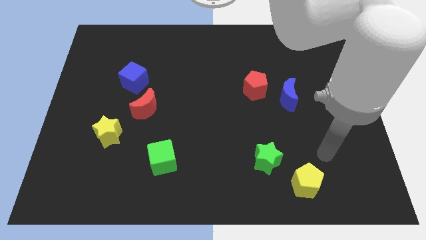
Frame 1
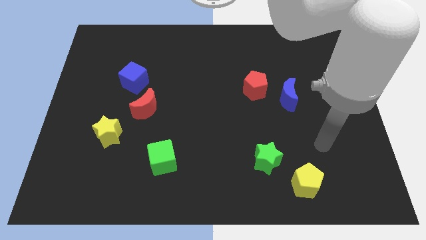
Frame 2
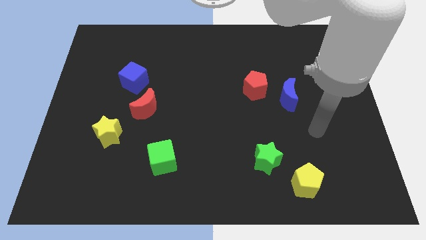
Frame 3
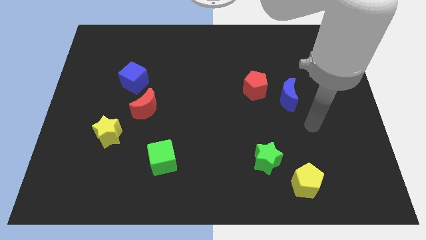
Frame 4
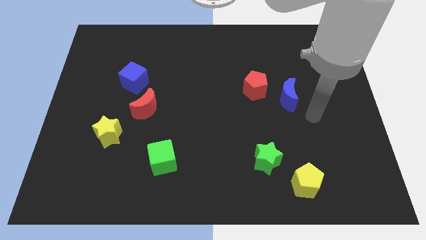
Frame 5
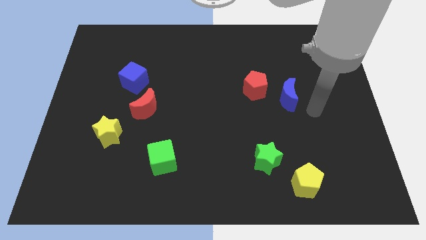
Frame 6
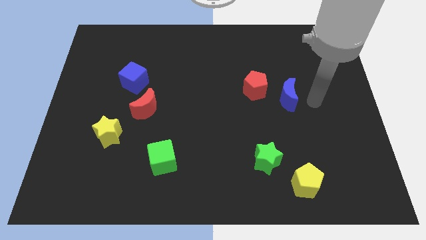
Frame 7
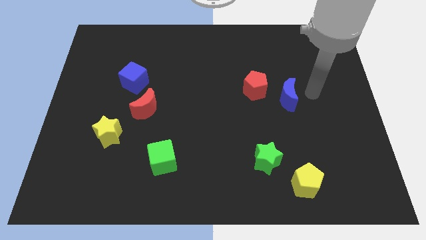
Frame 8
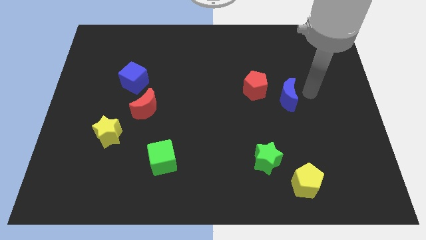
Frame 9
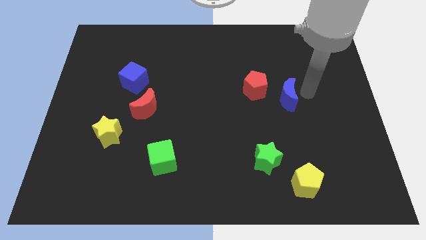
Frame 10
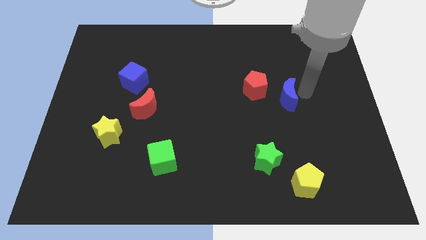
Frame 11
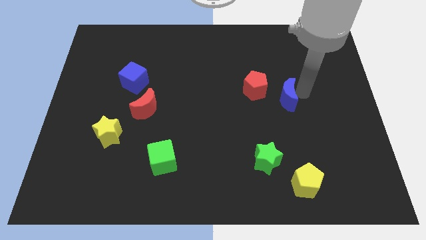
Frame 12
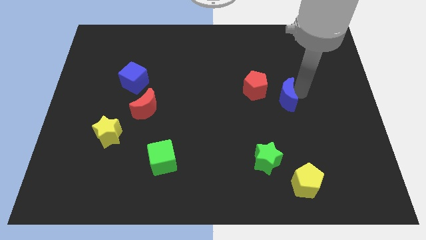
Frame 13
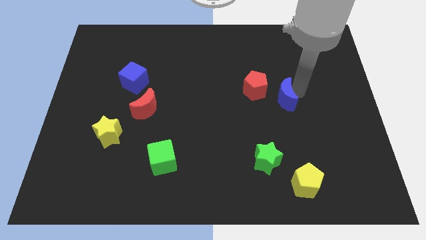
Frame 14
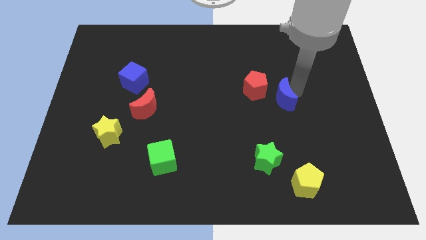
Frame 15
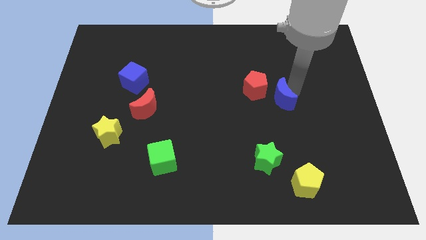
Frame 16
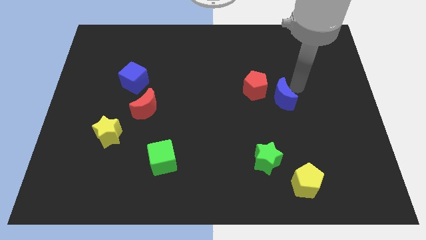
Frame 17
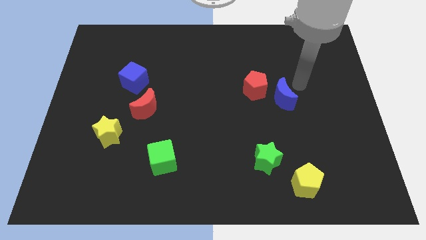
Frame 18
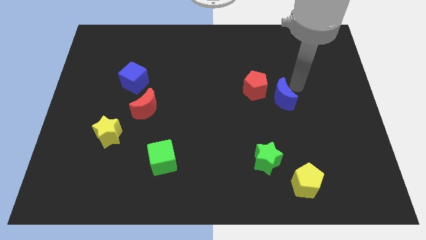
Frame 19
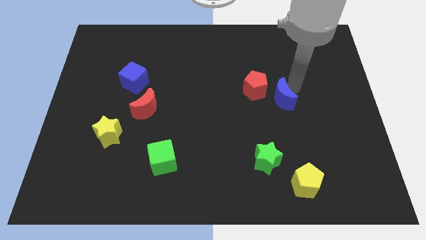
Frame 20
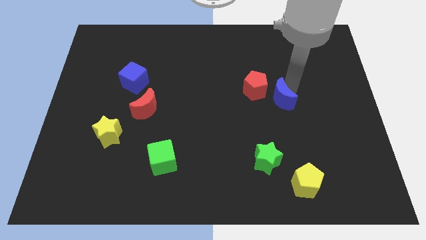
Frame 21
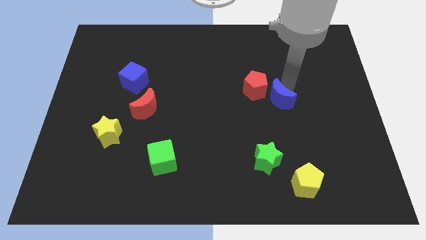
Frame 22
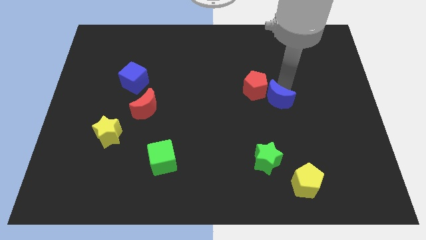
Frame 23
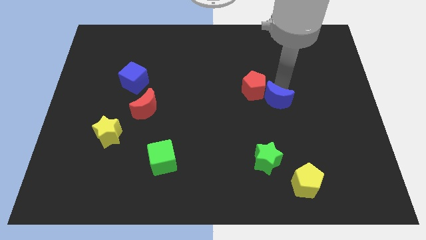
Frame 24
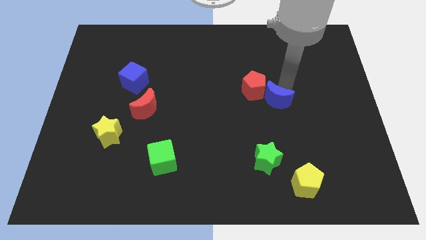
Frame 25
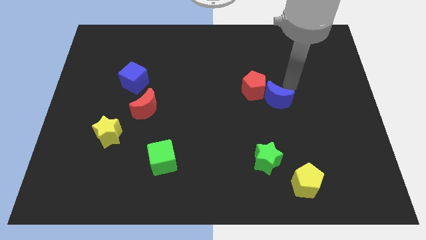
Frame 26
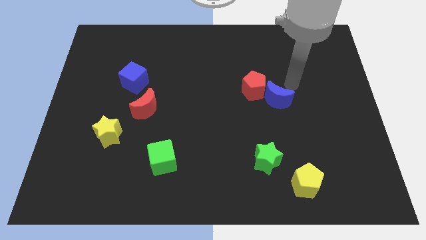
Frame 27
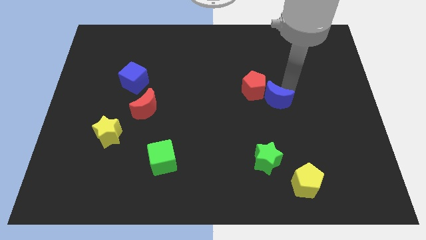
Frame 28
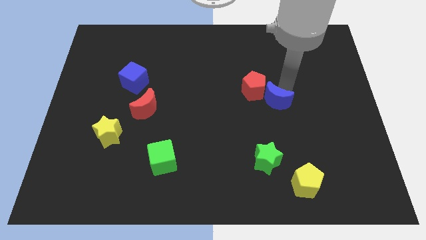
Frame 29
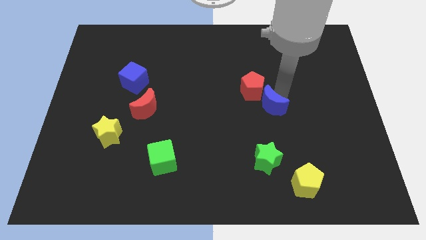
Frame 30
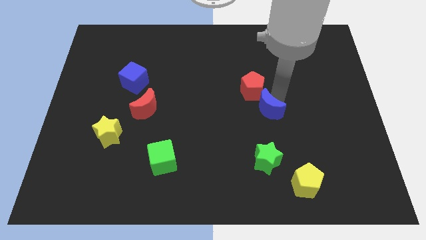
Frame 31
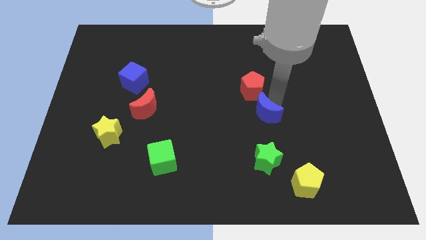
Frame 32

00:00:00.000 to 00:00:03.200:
slightly move the blue moon downwards and then left

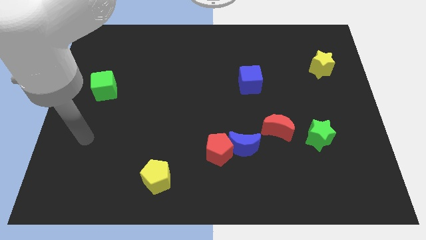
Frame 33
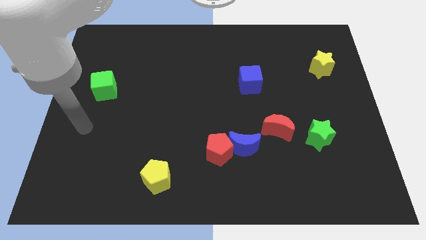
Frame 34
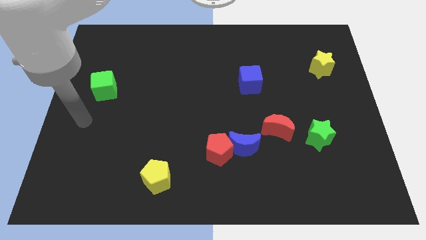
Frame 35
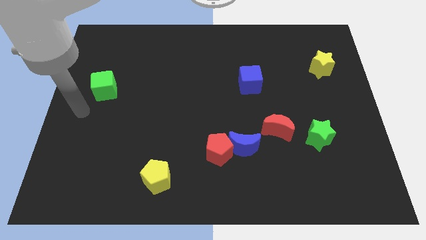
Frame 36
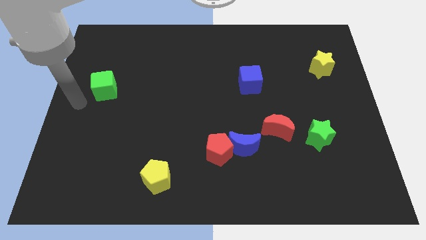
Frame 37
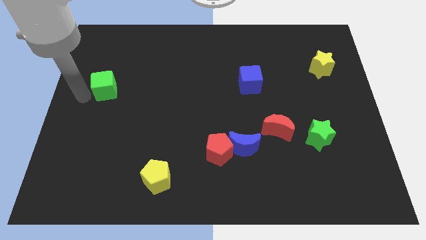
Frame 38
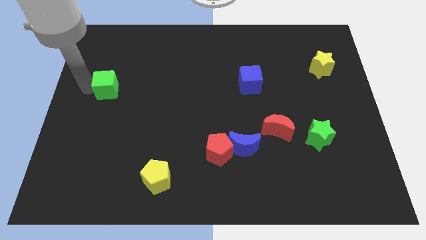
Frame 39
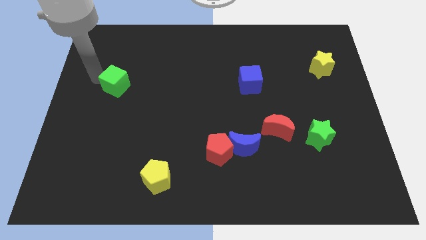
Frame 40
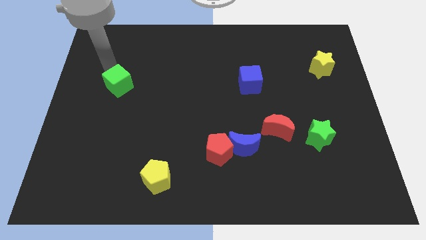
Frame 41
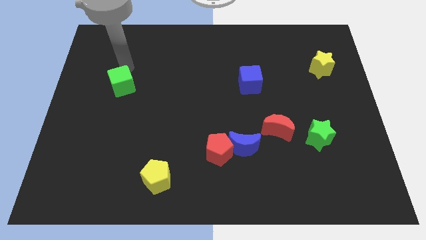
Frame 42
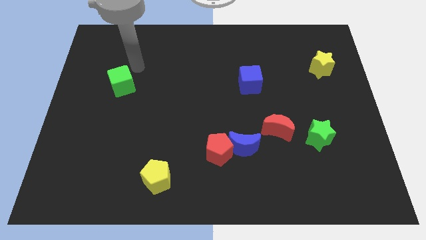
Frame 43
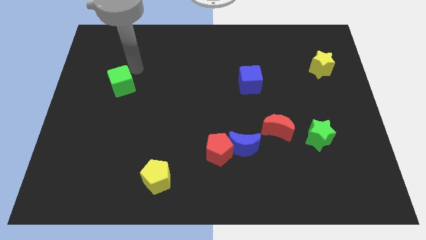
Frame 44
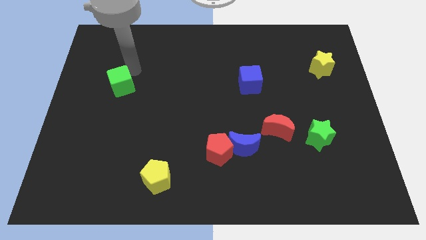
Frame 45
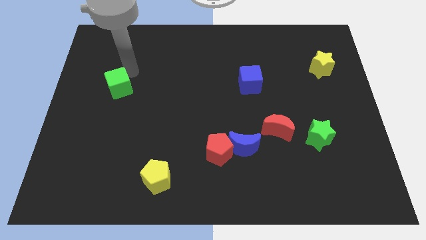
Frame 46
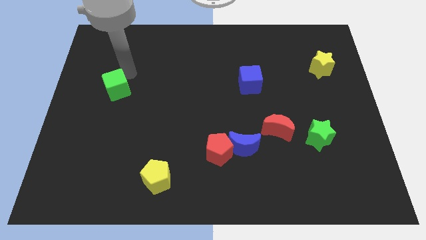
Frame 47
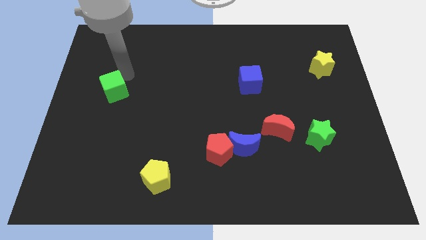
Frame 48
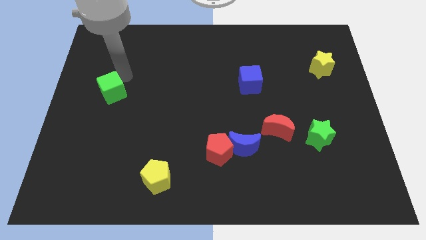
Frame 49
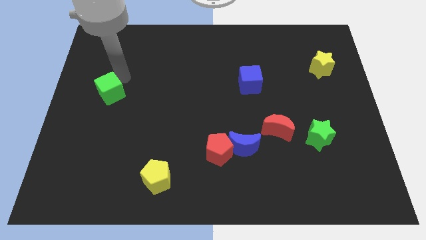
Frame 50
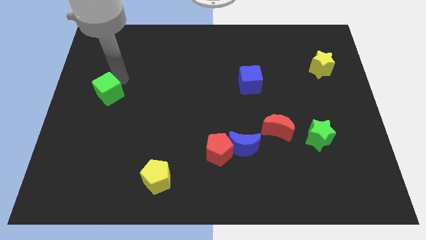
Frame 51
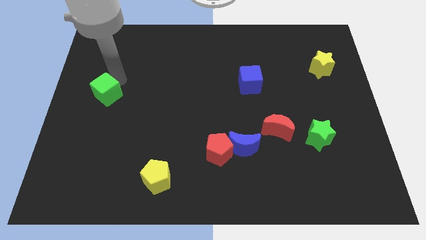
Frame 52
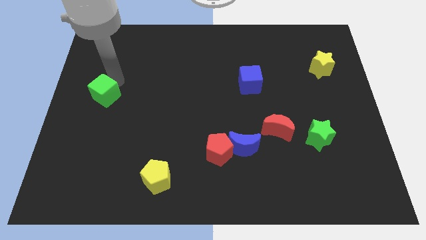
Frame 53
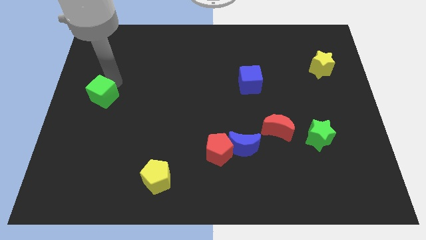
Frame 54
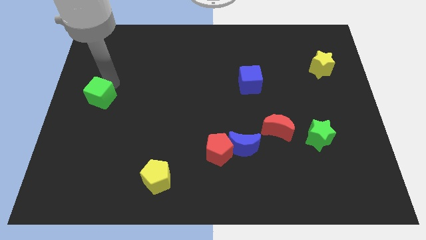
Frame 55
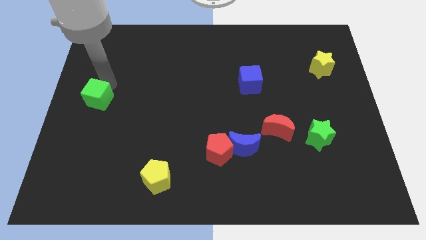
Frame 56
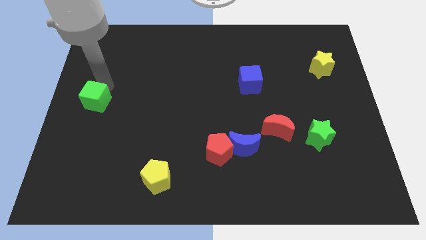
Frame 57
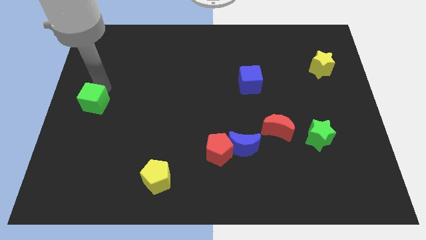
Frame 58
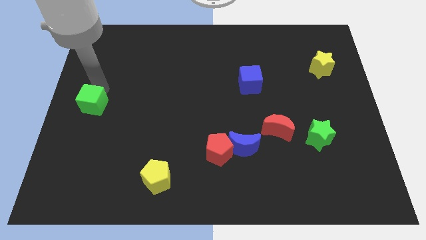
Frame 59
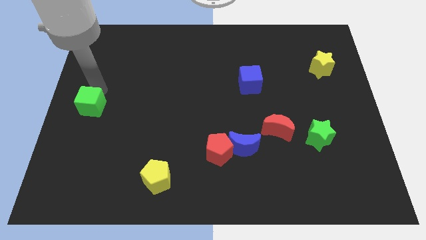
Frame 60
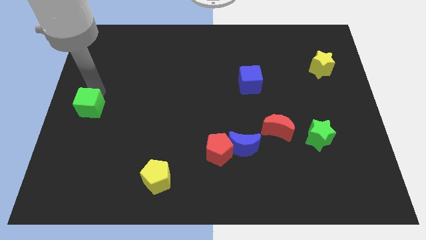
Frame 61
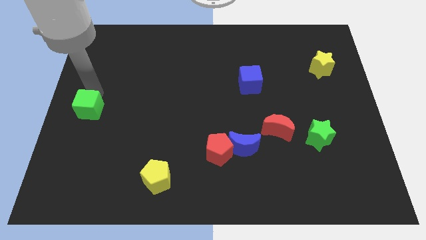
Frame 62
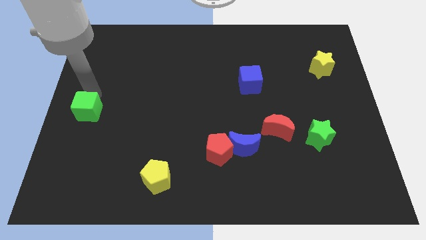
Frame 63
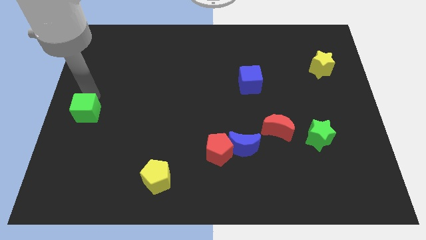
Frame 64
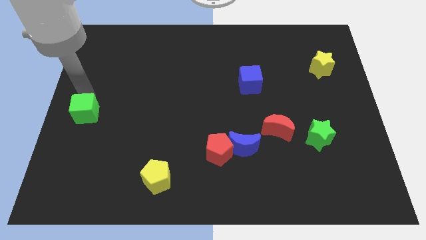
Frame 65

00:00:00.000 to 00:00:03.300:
push the green cube downwards a little

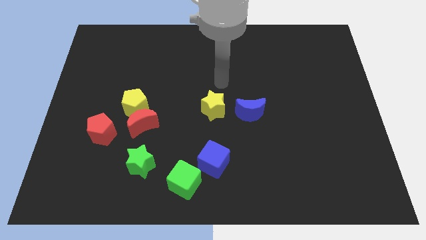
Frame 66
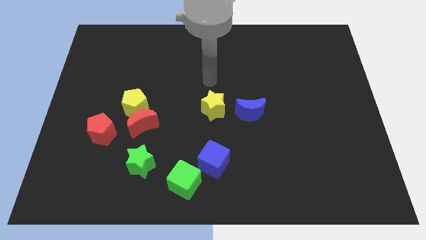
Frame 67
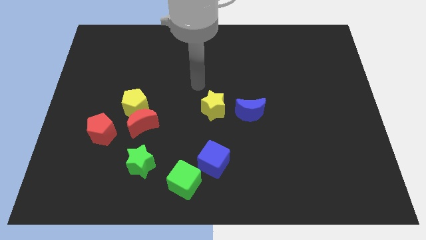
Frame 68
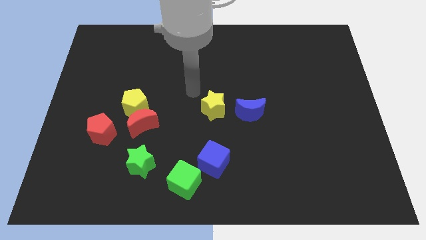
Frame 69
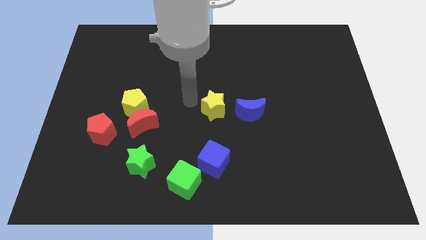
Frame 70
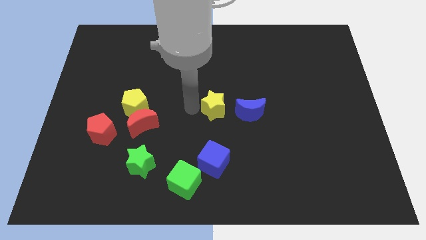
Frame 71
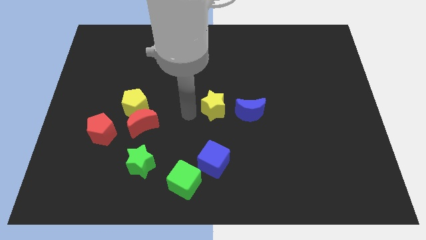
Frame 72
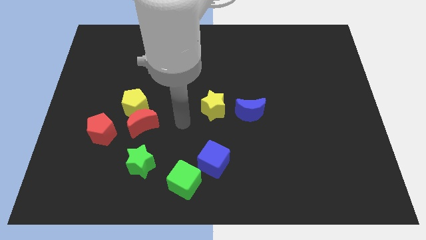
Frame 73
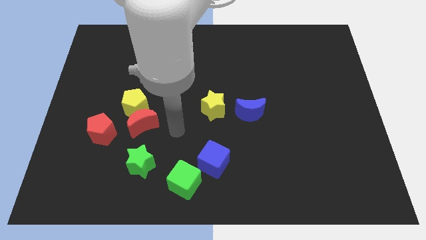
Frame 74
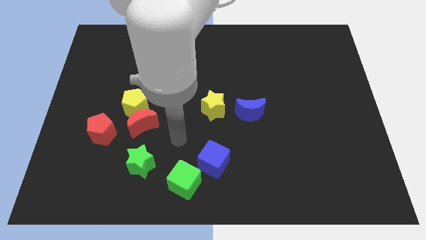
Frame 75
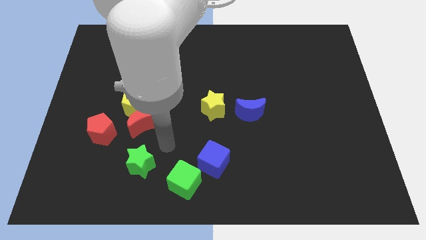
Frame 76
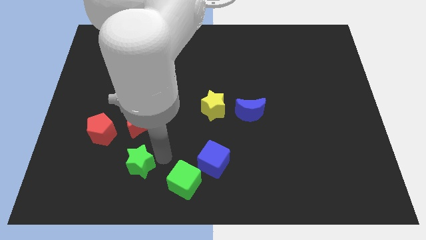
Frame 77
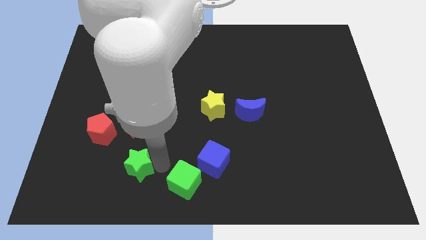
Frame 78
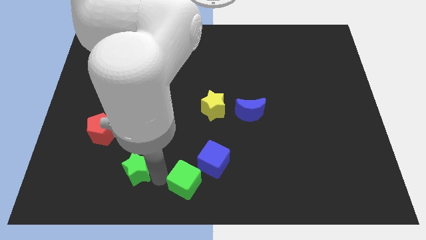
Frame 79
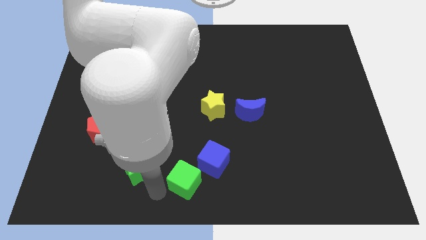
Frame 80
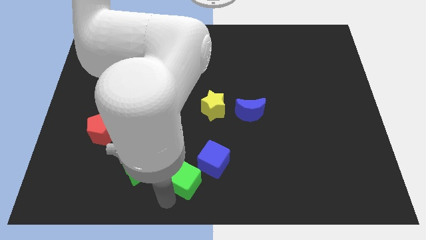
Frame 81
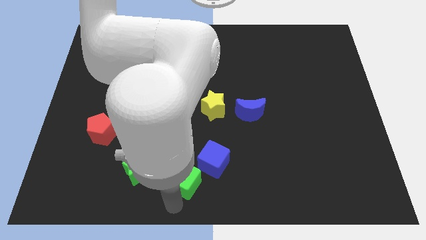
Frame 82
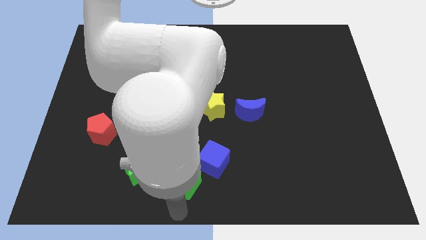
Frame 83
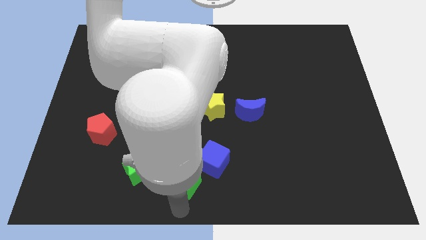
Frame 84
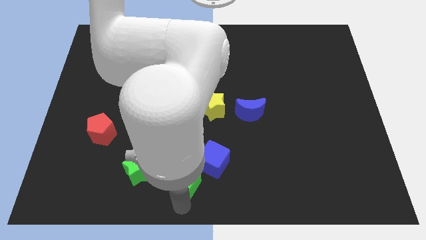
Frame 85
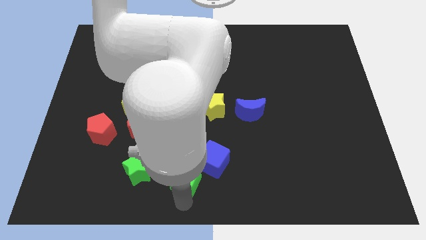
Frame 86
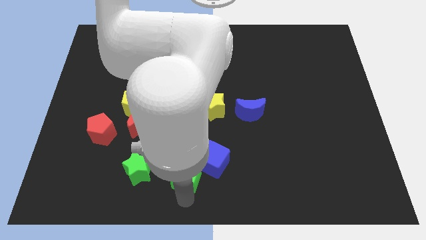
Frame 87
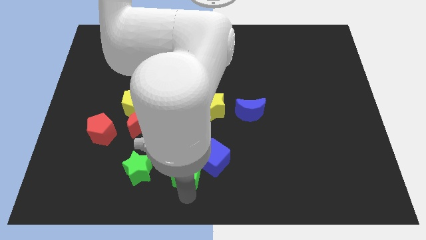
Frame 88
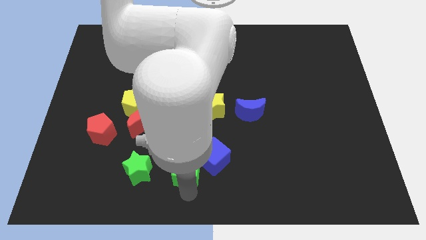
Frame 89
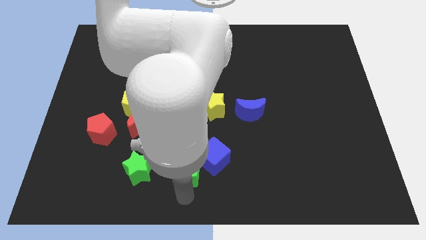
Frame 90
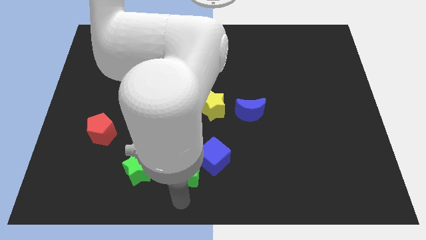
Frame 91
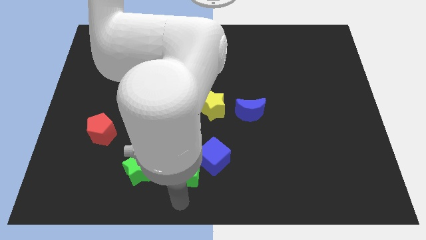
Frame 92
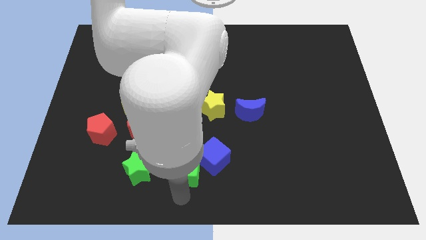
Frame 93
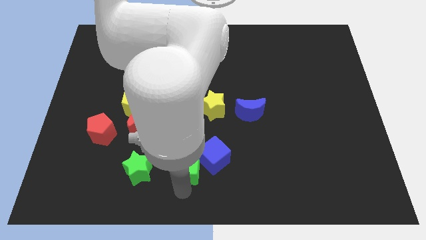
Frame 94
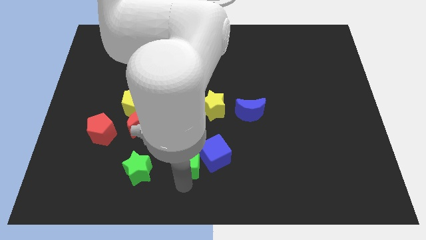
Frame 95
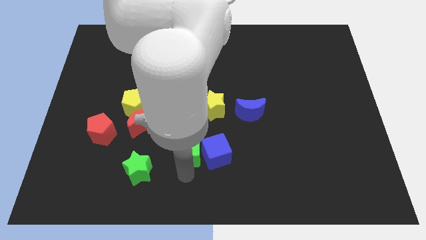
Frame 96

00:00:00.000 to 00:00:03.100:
move the green cube somewhat upwards
